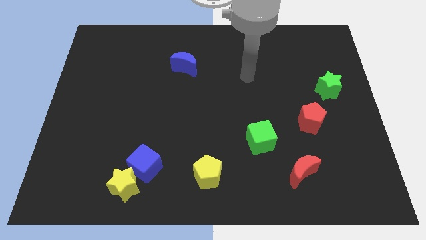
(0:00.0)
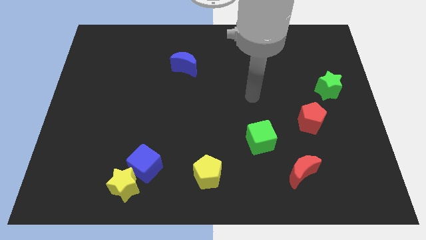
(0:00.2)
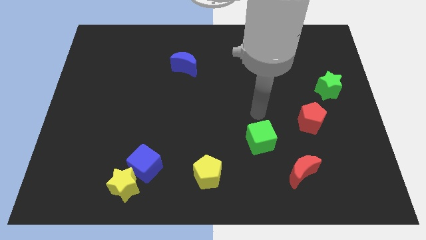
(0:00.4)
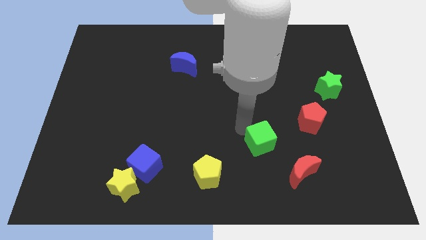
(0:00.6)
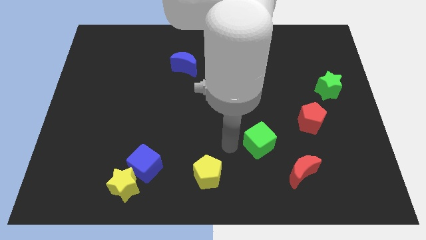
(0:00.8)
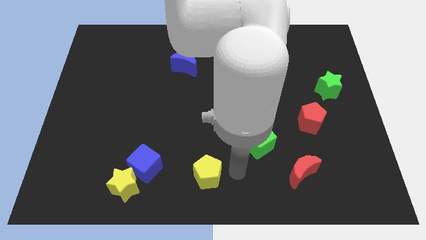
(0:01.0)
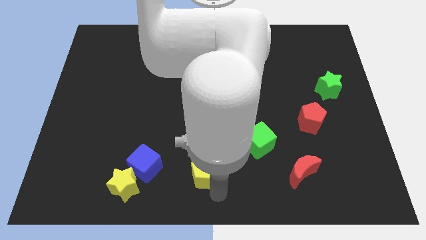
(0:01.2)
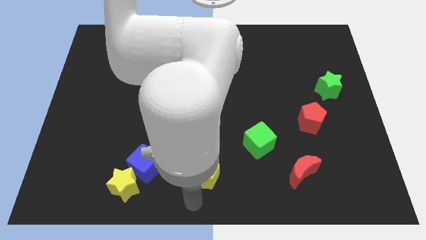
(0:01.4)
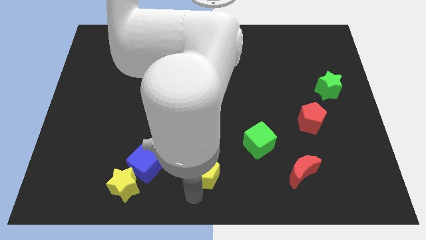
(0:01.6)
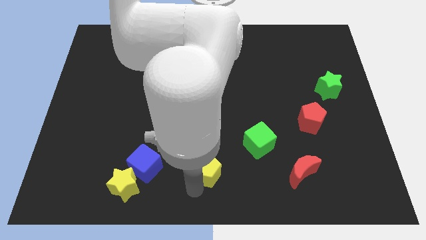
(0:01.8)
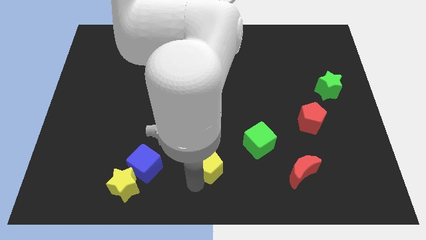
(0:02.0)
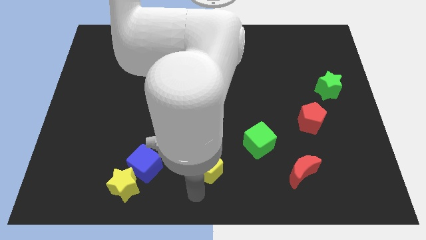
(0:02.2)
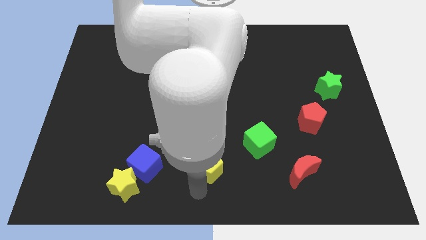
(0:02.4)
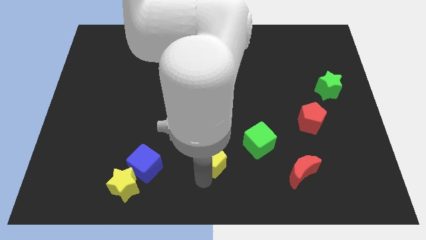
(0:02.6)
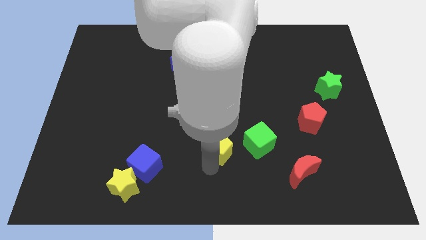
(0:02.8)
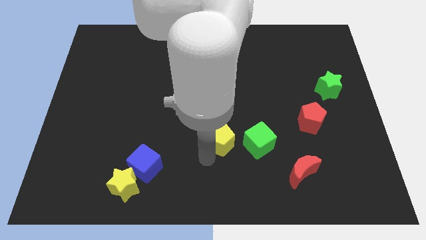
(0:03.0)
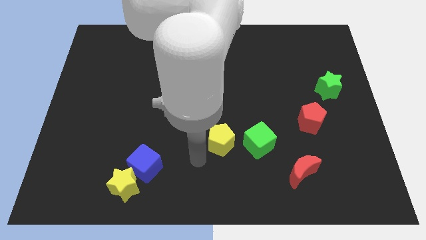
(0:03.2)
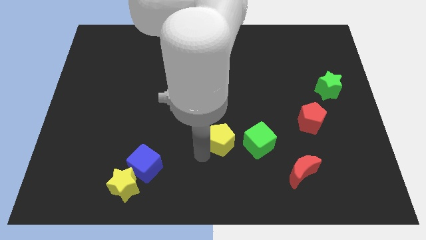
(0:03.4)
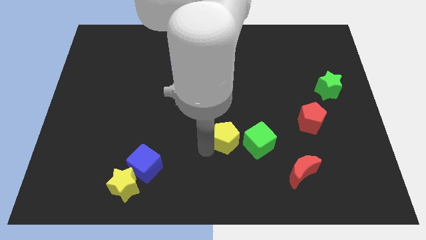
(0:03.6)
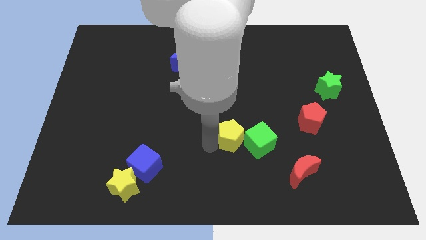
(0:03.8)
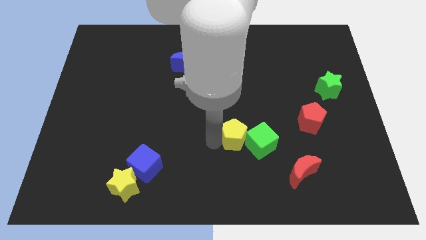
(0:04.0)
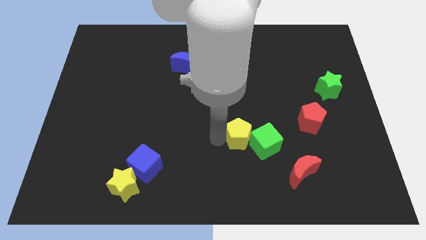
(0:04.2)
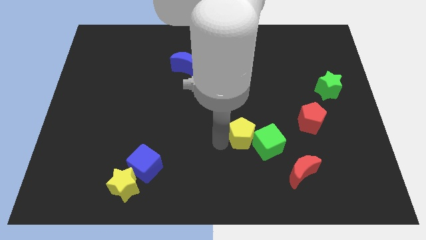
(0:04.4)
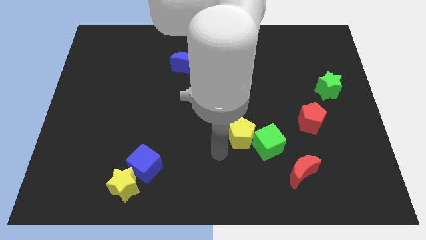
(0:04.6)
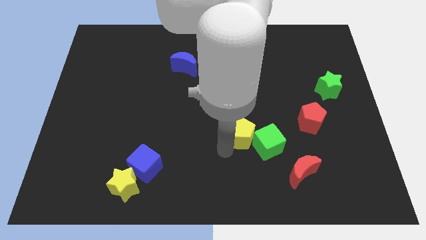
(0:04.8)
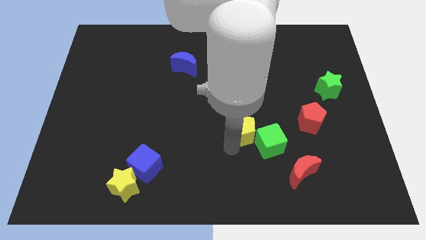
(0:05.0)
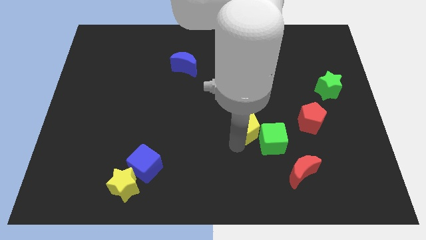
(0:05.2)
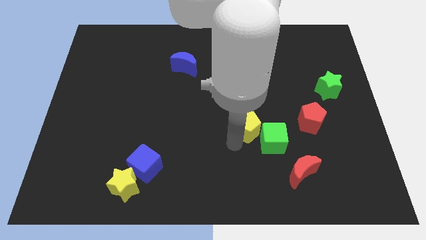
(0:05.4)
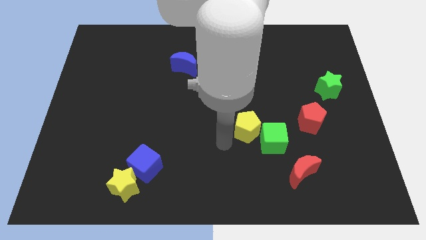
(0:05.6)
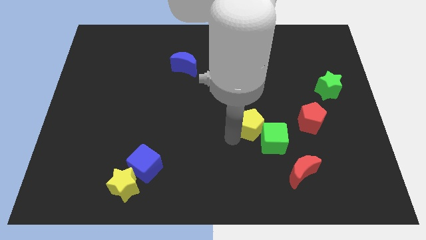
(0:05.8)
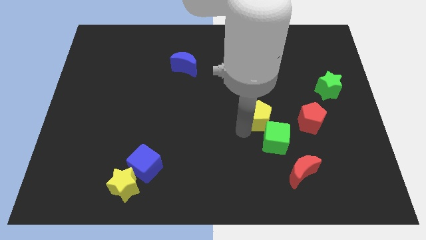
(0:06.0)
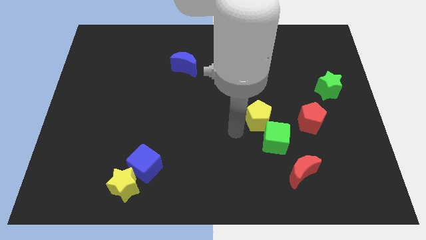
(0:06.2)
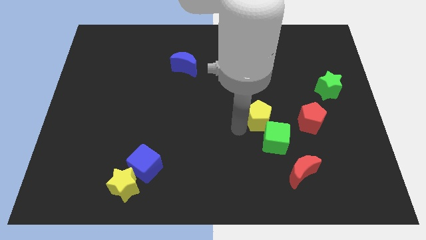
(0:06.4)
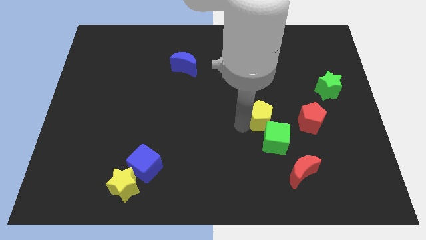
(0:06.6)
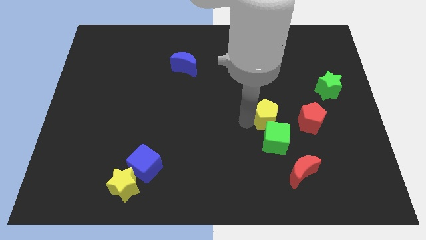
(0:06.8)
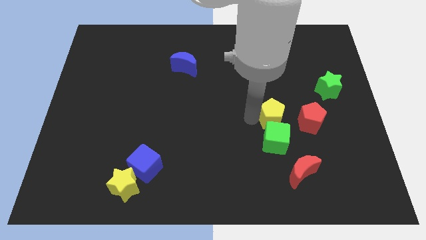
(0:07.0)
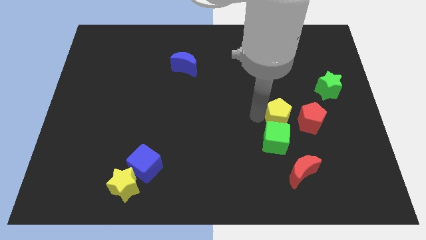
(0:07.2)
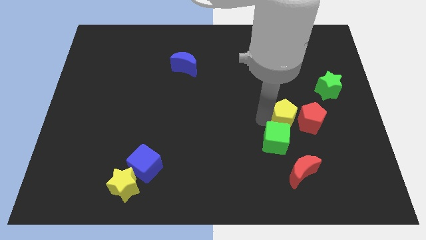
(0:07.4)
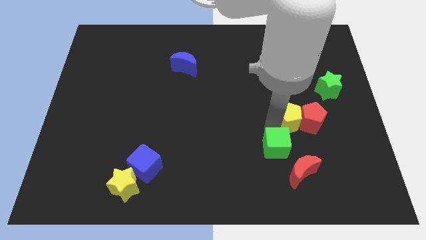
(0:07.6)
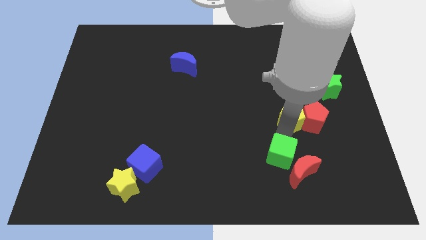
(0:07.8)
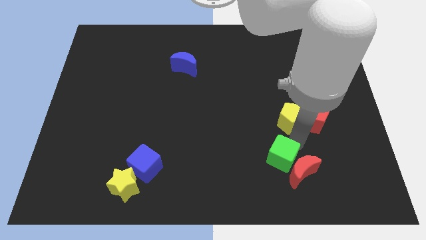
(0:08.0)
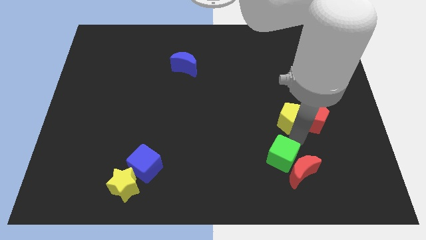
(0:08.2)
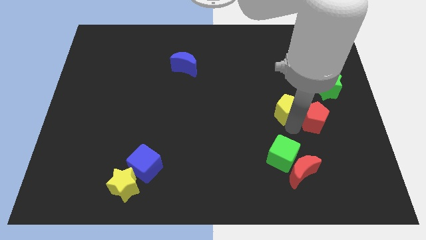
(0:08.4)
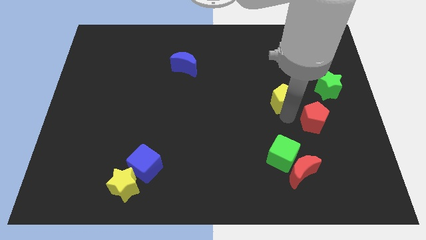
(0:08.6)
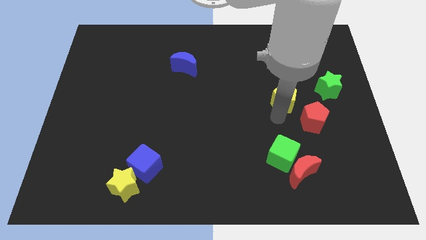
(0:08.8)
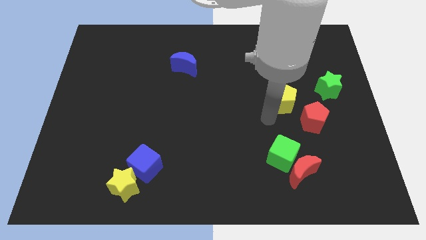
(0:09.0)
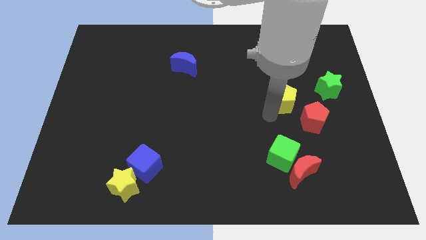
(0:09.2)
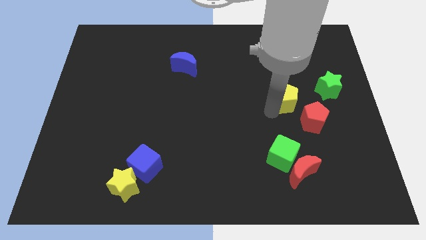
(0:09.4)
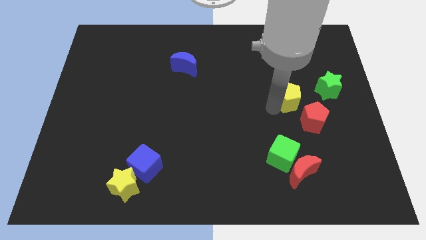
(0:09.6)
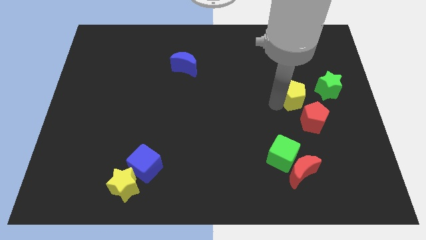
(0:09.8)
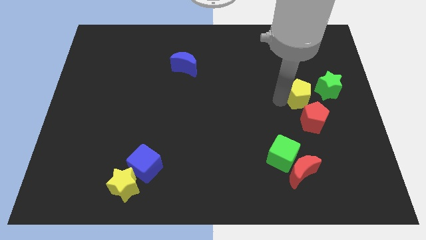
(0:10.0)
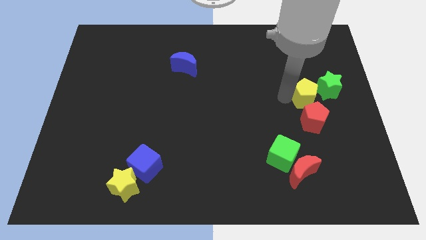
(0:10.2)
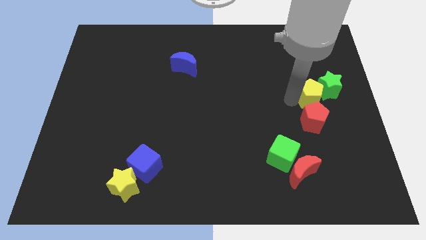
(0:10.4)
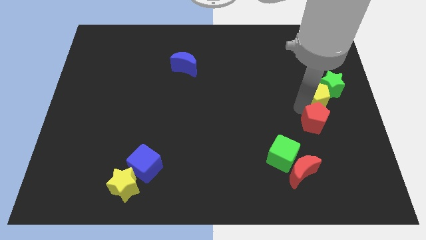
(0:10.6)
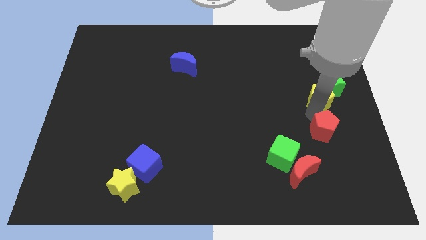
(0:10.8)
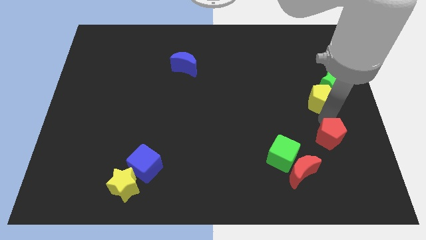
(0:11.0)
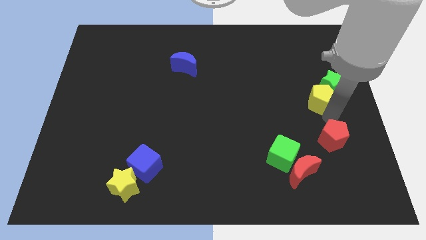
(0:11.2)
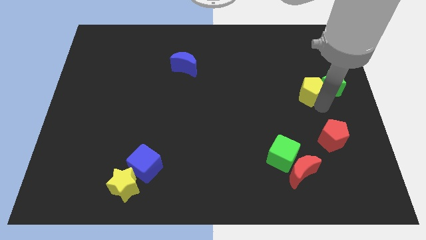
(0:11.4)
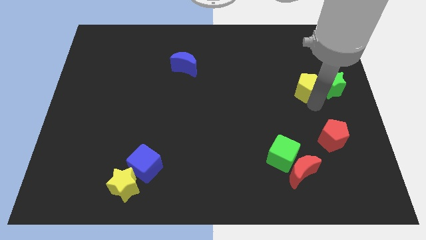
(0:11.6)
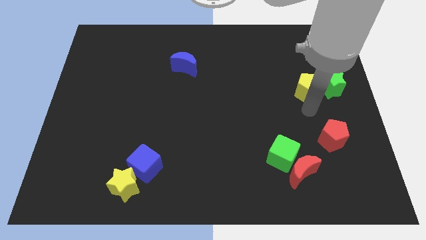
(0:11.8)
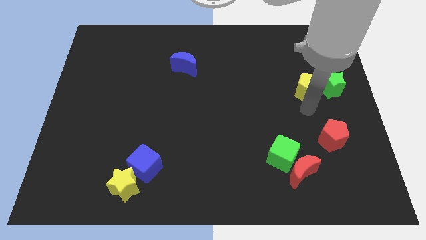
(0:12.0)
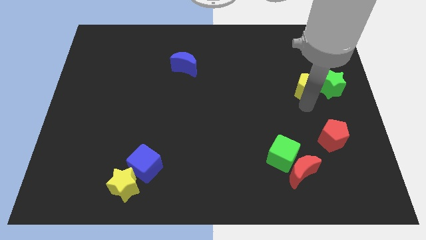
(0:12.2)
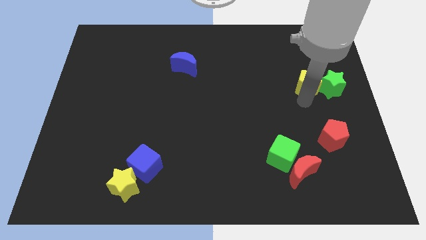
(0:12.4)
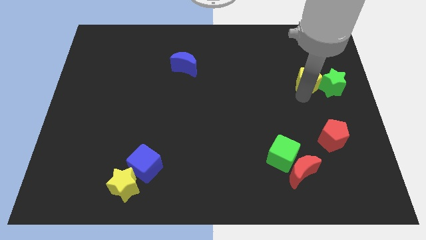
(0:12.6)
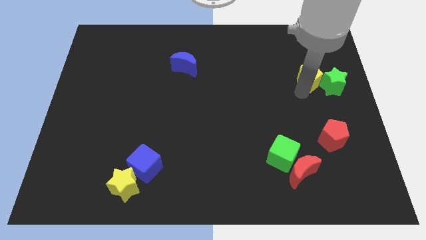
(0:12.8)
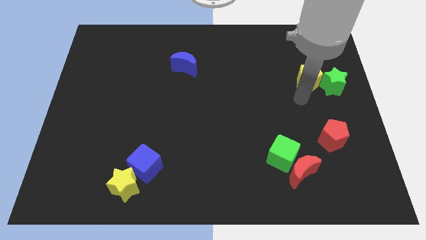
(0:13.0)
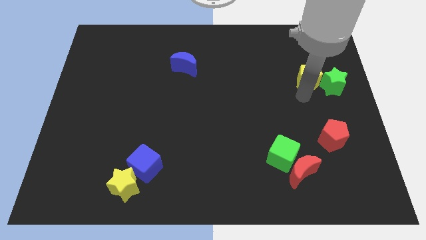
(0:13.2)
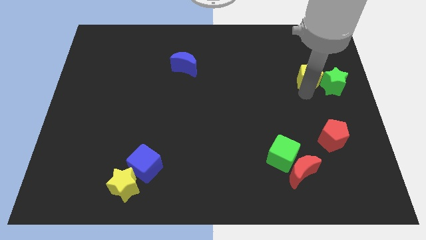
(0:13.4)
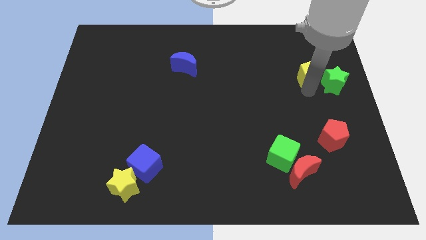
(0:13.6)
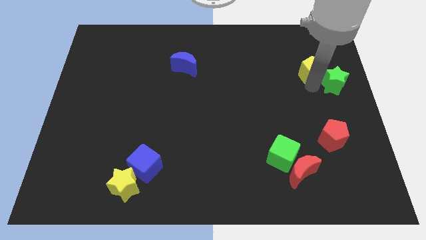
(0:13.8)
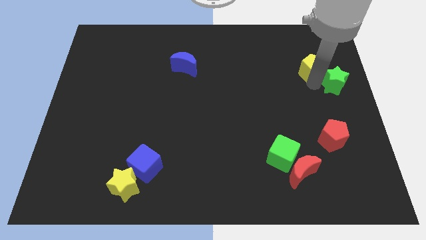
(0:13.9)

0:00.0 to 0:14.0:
move the yellow pentagon to the top of the green star
